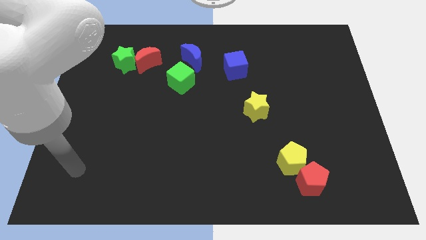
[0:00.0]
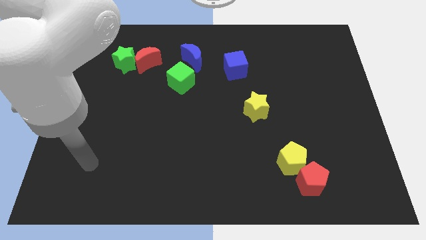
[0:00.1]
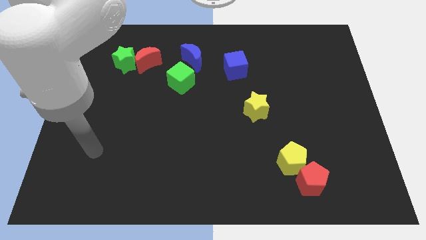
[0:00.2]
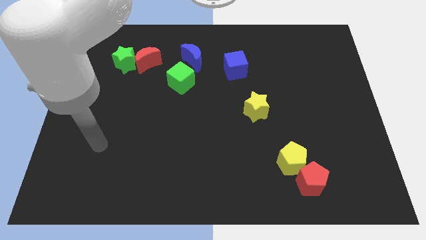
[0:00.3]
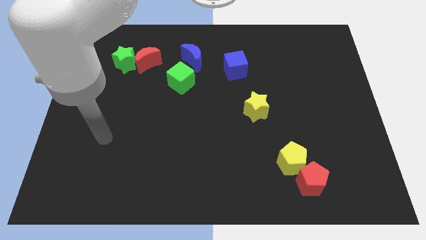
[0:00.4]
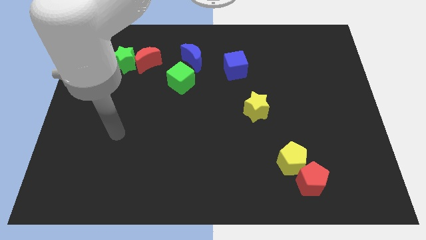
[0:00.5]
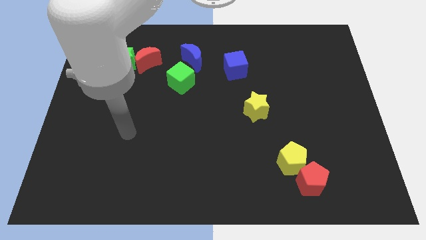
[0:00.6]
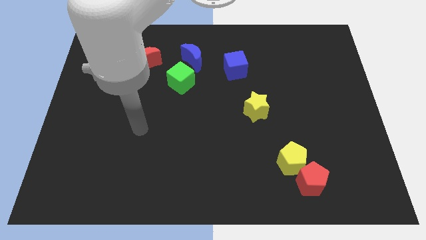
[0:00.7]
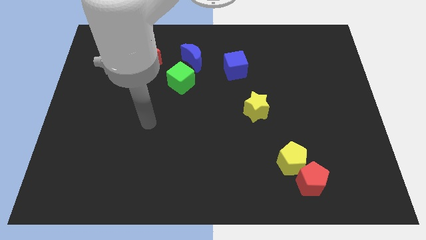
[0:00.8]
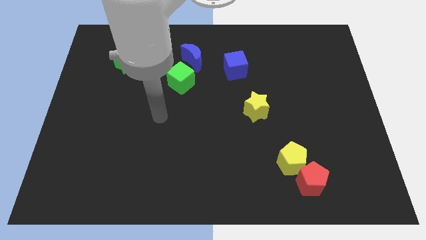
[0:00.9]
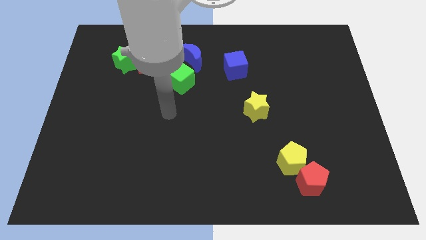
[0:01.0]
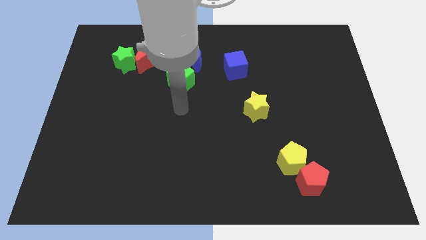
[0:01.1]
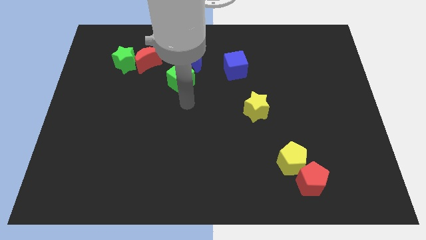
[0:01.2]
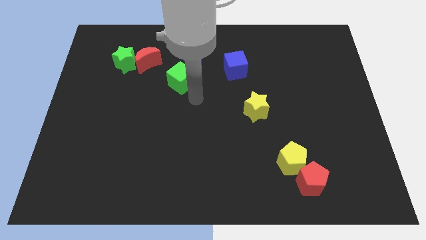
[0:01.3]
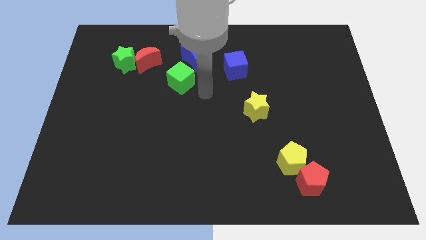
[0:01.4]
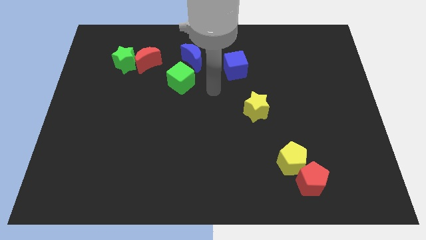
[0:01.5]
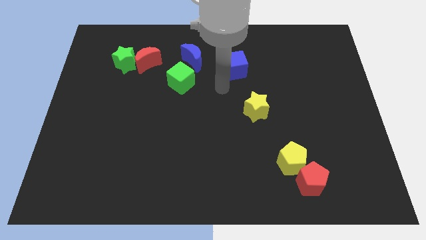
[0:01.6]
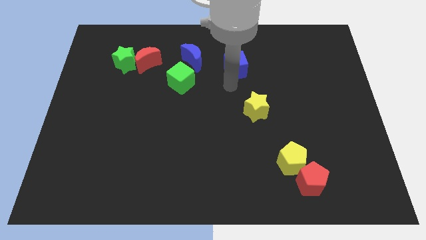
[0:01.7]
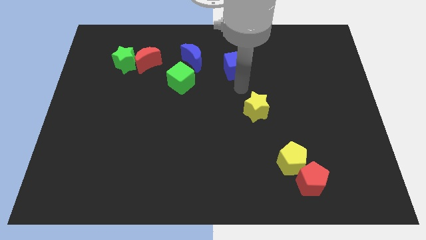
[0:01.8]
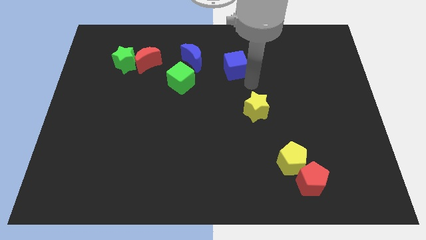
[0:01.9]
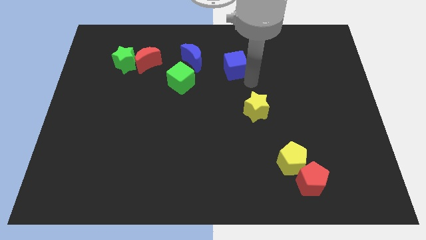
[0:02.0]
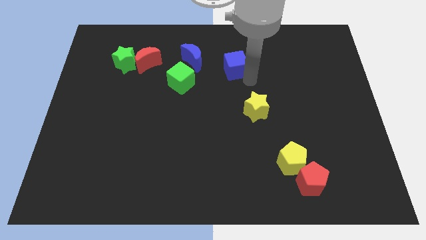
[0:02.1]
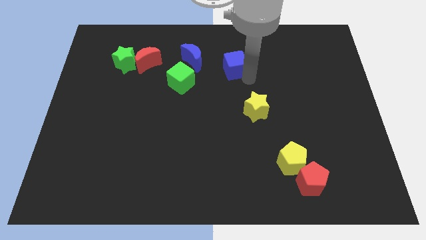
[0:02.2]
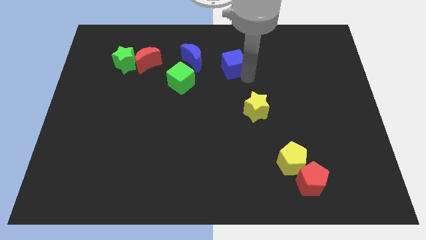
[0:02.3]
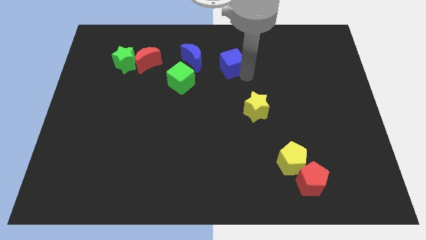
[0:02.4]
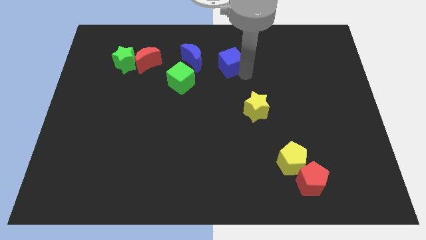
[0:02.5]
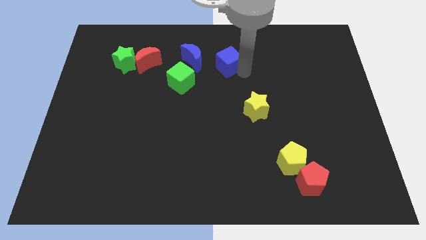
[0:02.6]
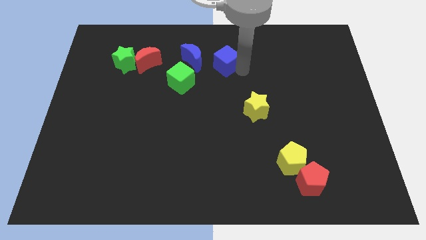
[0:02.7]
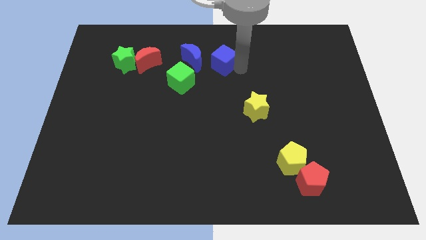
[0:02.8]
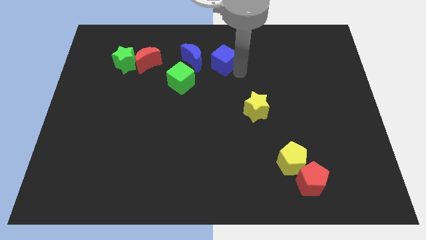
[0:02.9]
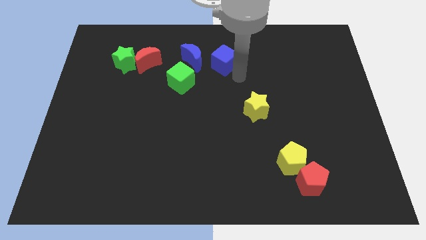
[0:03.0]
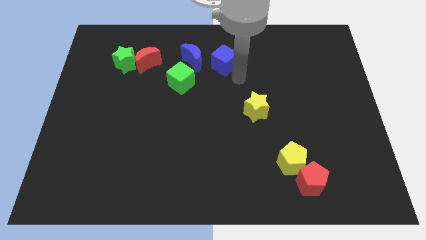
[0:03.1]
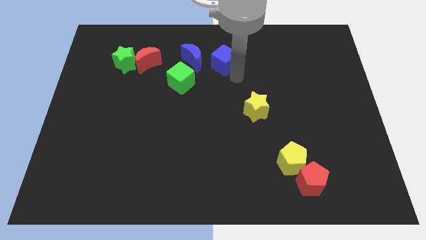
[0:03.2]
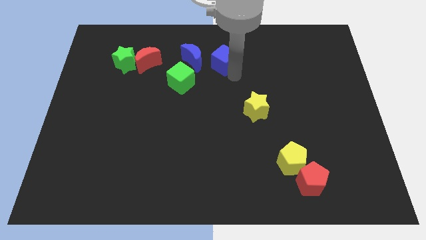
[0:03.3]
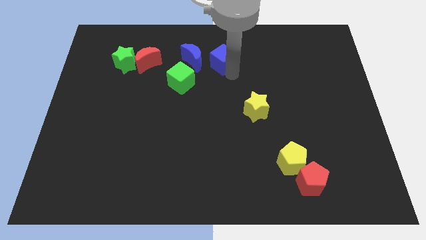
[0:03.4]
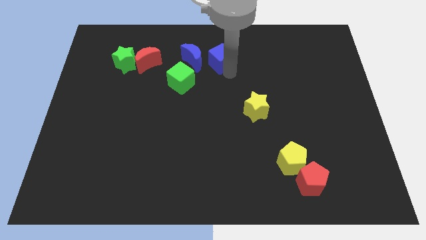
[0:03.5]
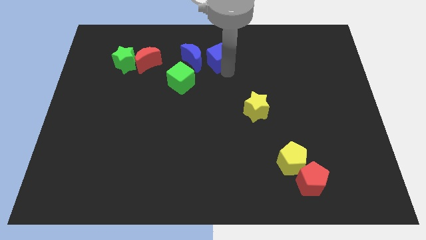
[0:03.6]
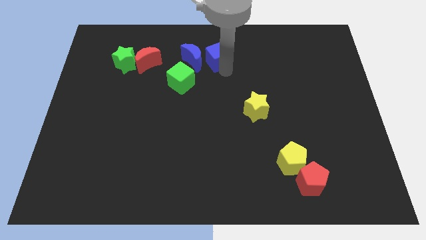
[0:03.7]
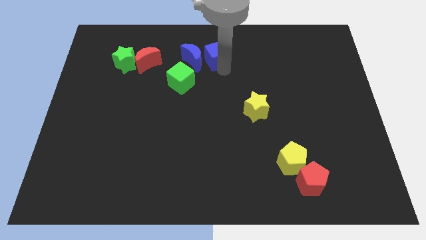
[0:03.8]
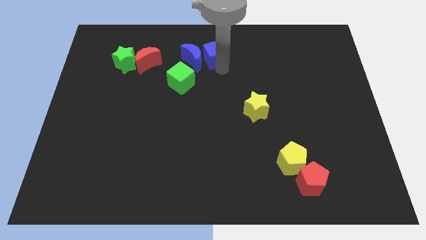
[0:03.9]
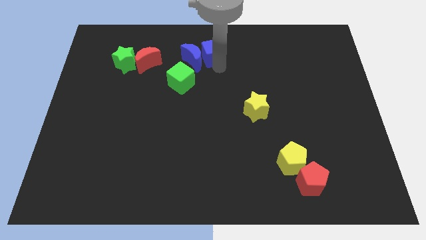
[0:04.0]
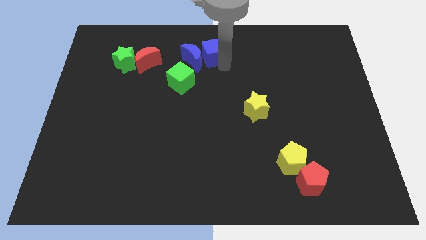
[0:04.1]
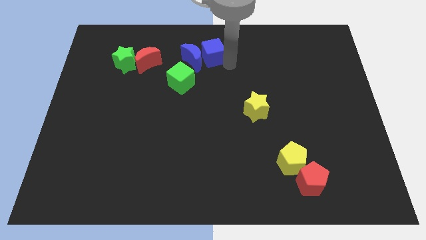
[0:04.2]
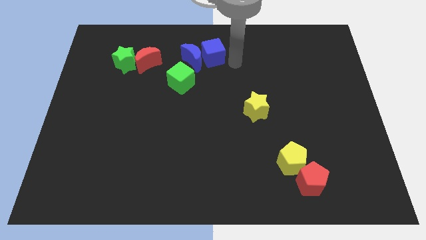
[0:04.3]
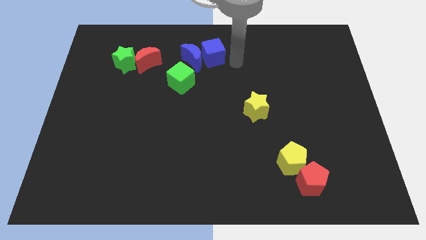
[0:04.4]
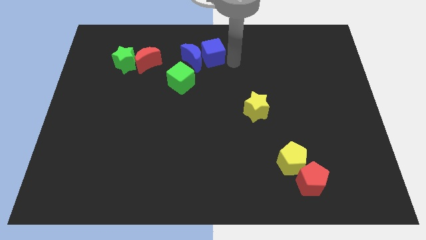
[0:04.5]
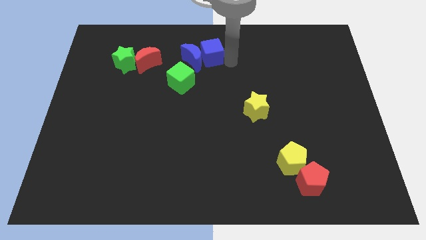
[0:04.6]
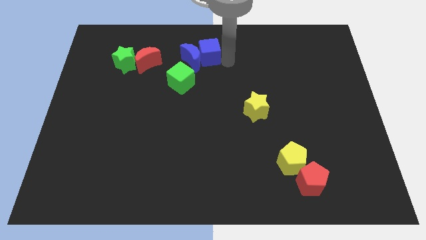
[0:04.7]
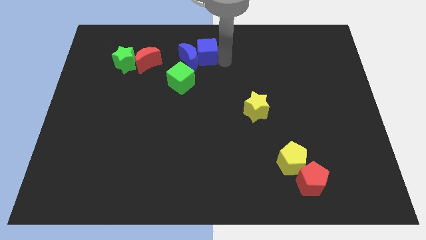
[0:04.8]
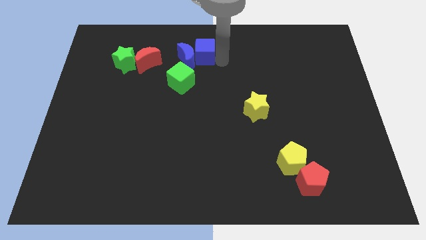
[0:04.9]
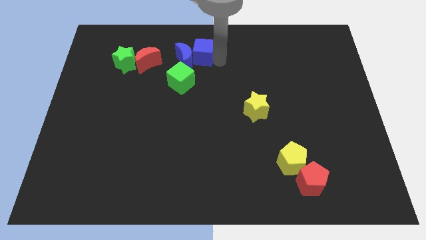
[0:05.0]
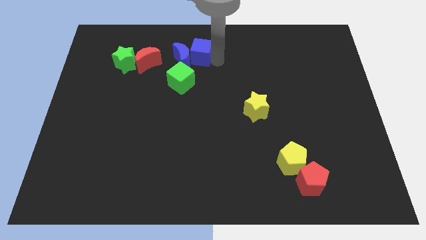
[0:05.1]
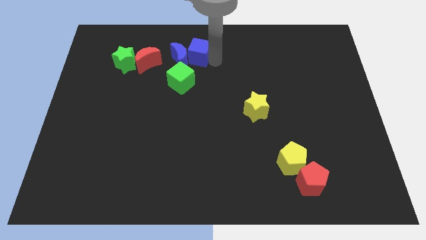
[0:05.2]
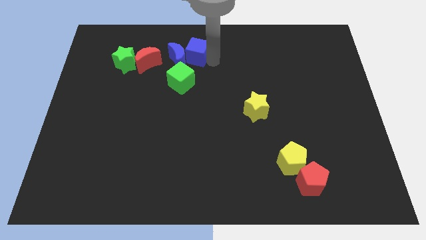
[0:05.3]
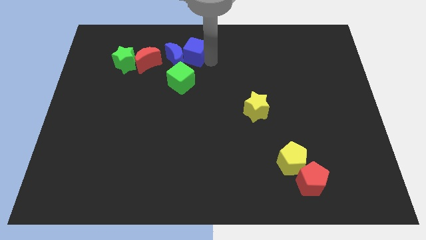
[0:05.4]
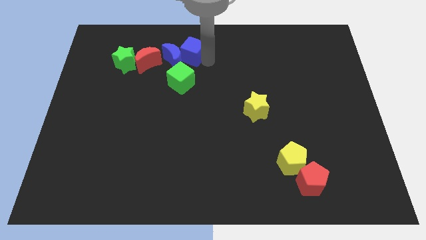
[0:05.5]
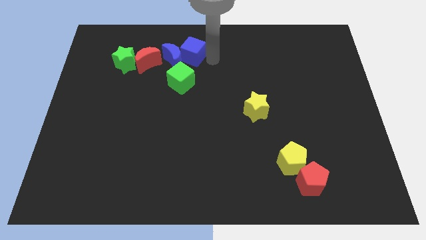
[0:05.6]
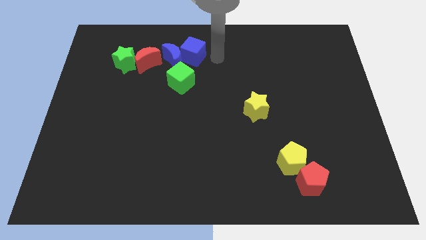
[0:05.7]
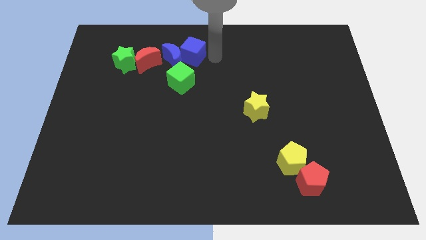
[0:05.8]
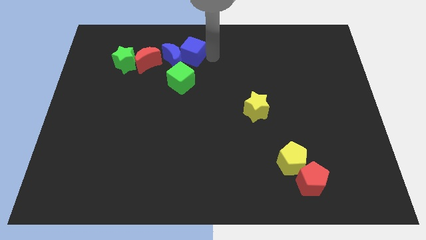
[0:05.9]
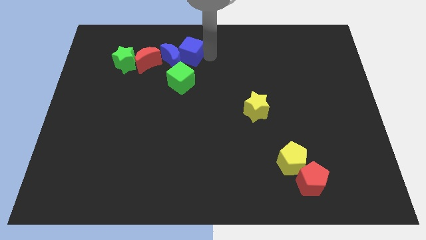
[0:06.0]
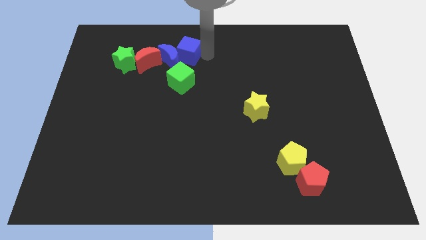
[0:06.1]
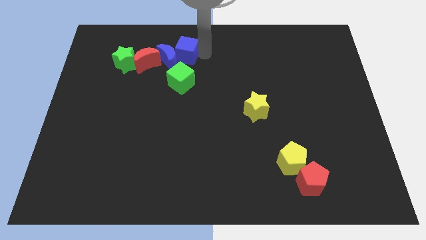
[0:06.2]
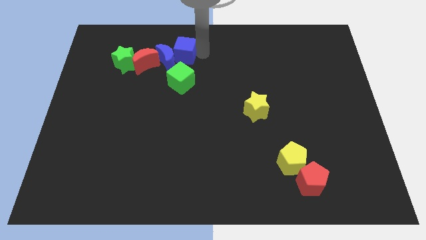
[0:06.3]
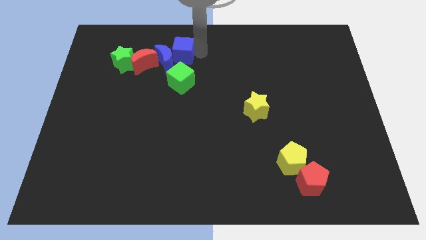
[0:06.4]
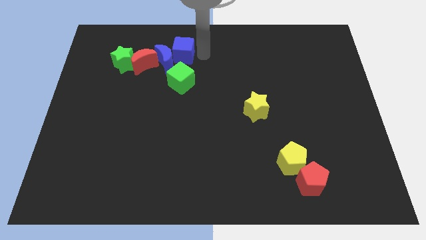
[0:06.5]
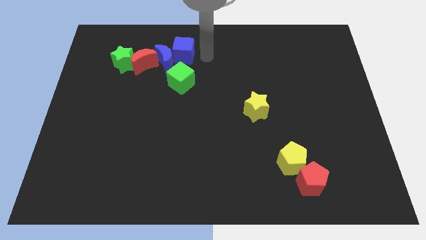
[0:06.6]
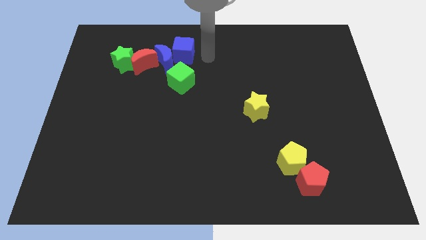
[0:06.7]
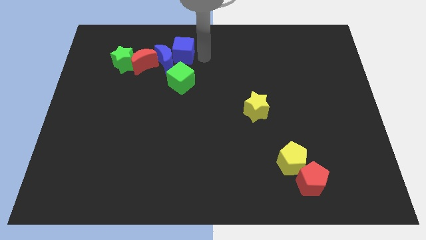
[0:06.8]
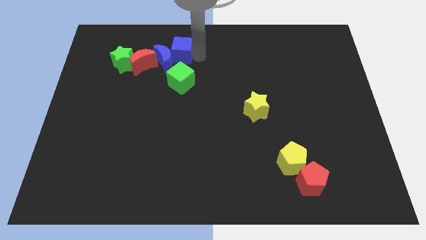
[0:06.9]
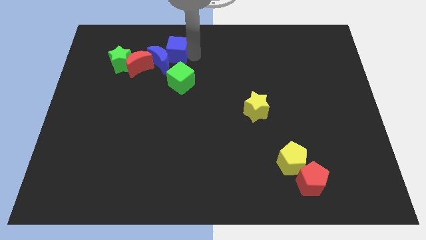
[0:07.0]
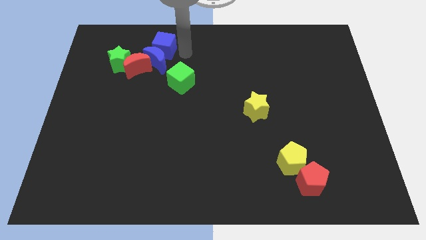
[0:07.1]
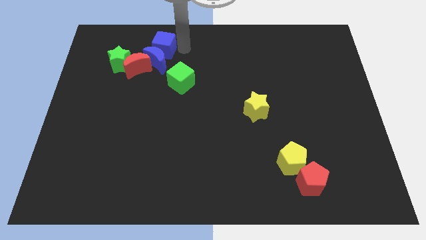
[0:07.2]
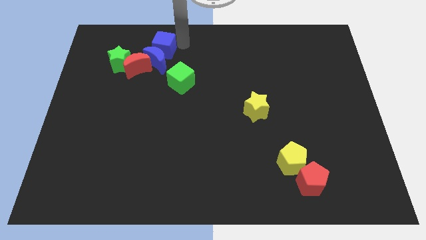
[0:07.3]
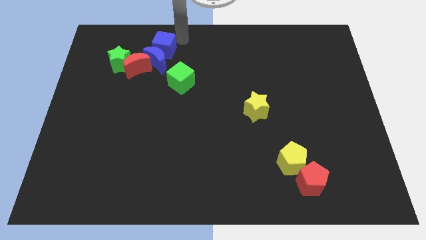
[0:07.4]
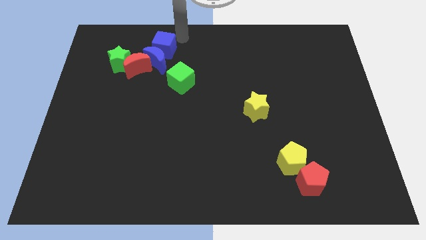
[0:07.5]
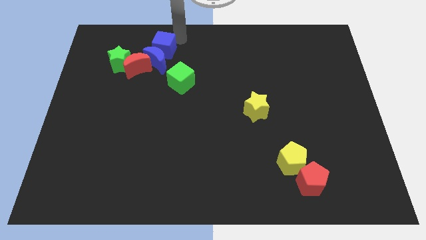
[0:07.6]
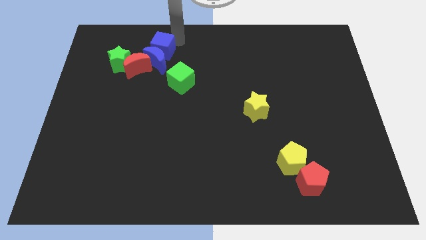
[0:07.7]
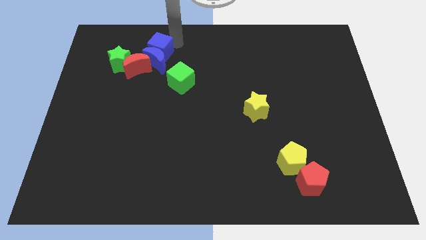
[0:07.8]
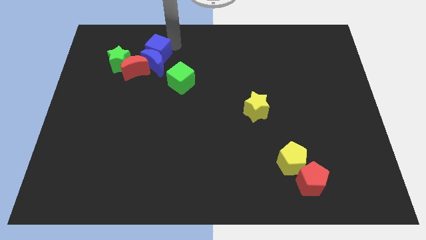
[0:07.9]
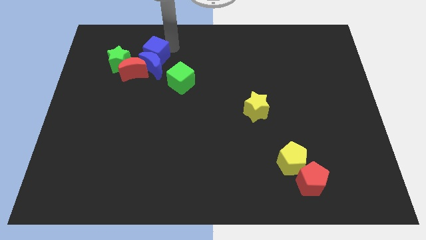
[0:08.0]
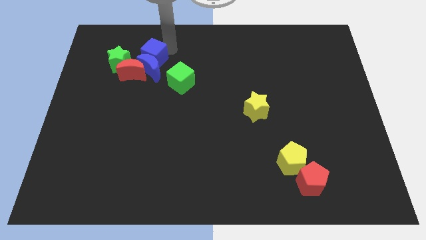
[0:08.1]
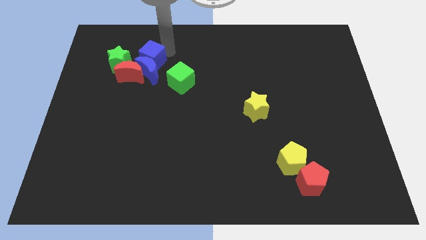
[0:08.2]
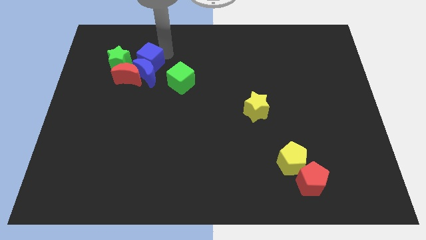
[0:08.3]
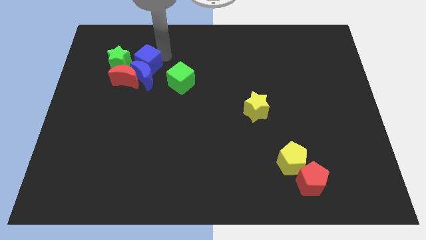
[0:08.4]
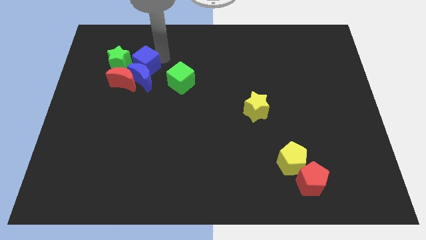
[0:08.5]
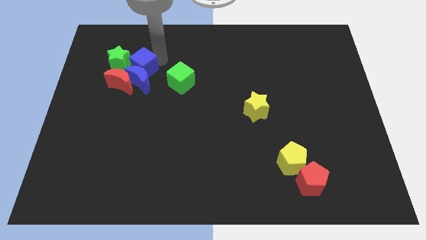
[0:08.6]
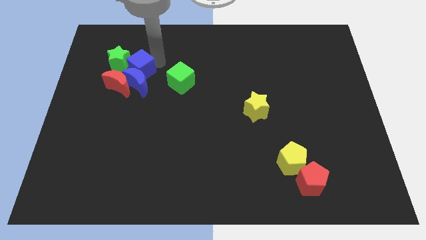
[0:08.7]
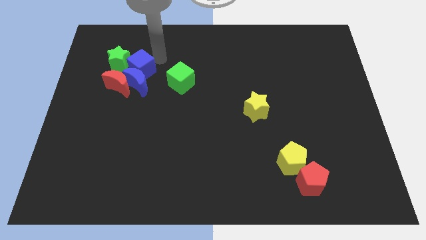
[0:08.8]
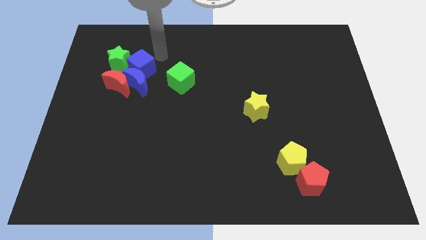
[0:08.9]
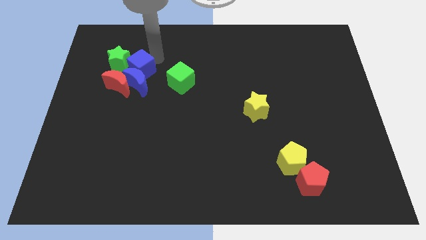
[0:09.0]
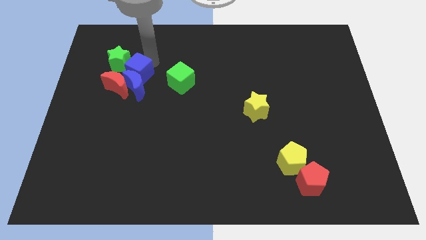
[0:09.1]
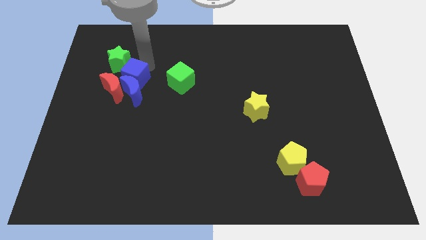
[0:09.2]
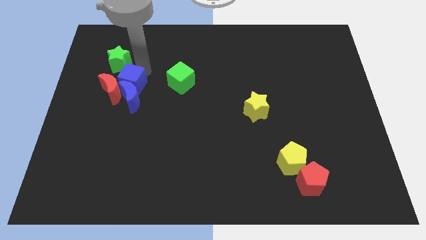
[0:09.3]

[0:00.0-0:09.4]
put the blue cube next to the red moon
